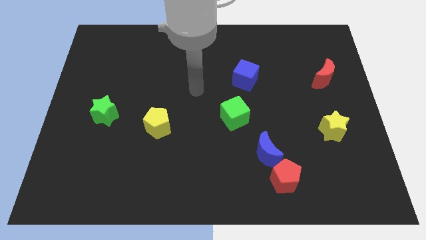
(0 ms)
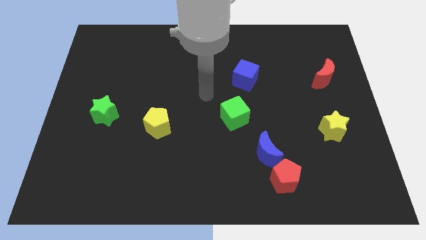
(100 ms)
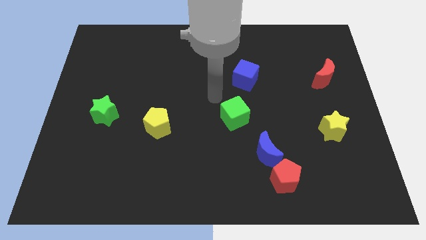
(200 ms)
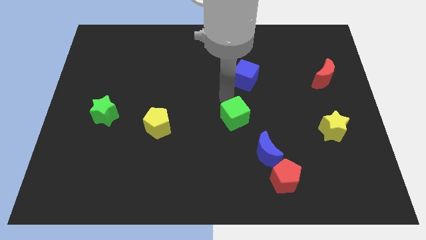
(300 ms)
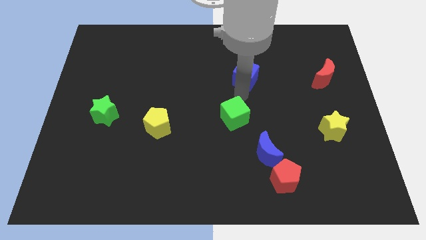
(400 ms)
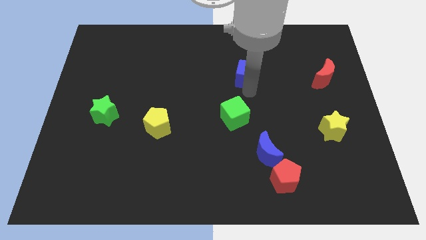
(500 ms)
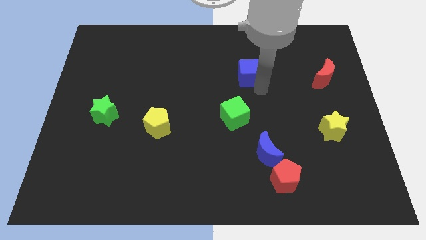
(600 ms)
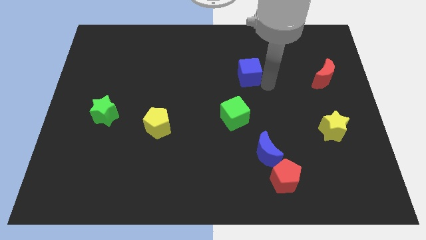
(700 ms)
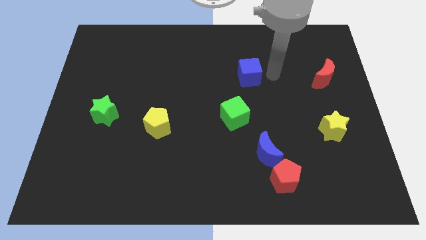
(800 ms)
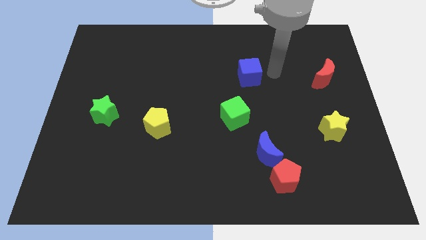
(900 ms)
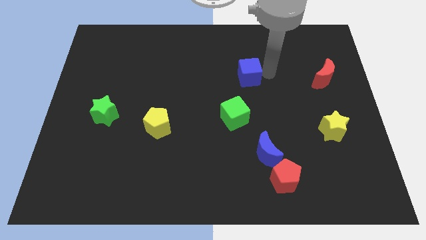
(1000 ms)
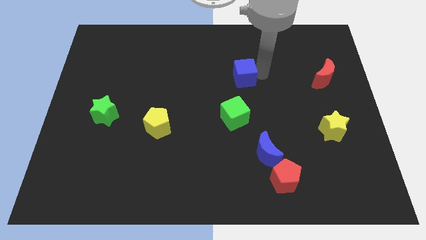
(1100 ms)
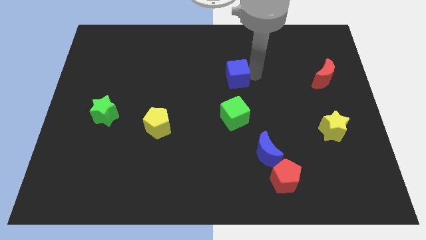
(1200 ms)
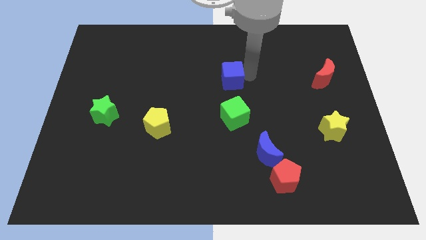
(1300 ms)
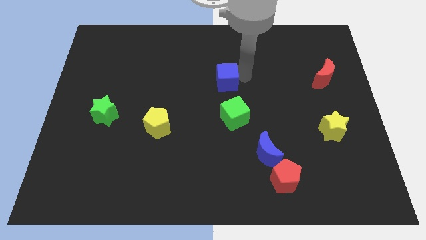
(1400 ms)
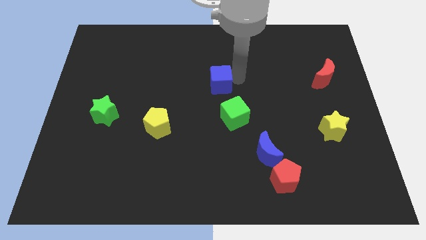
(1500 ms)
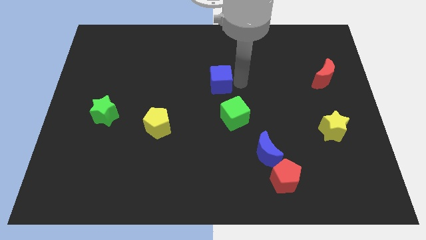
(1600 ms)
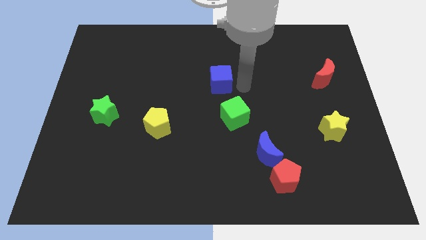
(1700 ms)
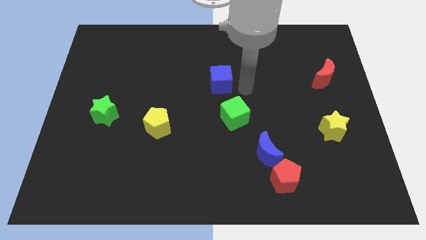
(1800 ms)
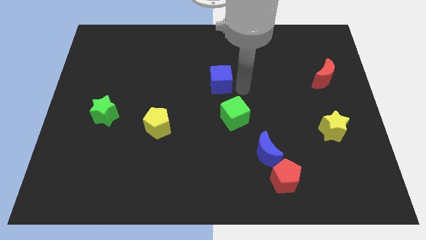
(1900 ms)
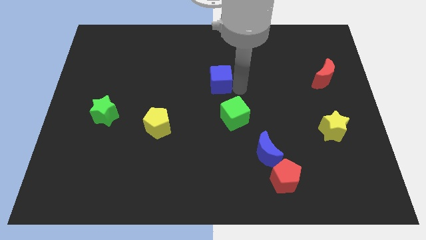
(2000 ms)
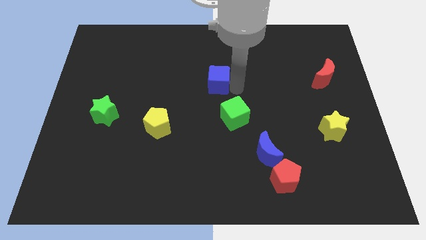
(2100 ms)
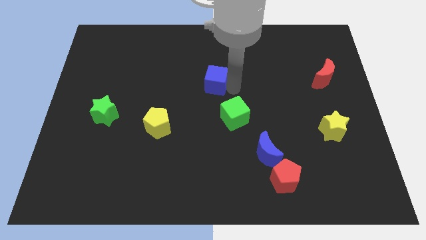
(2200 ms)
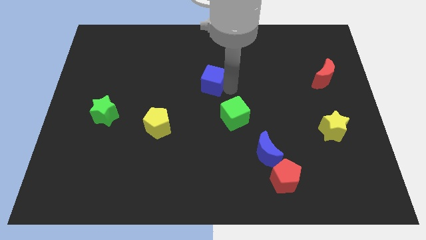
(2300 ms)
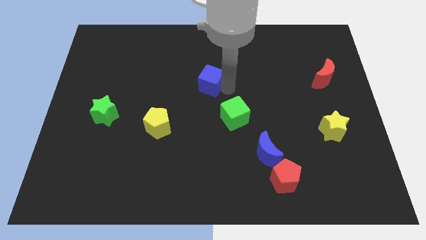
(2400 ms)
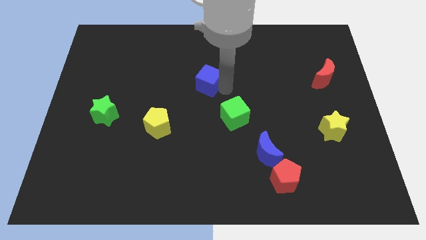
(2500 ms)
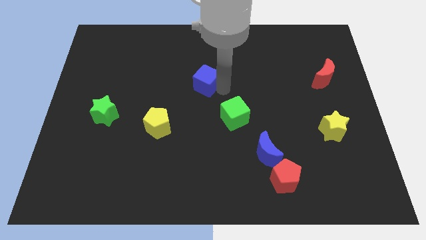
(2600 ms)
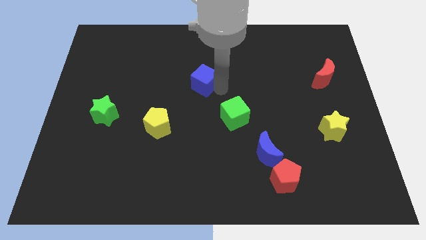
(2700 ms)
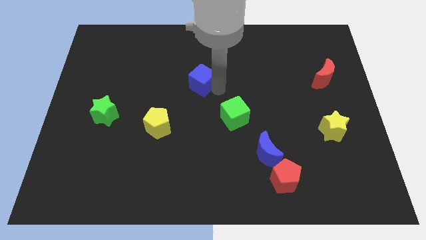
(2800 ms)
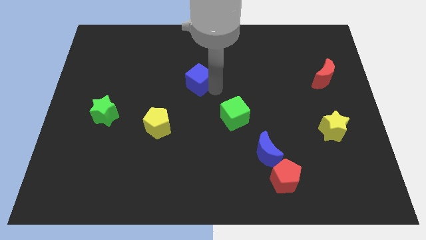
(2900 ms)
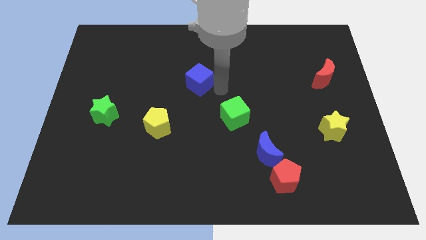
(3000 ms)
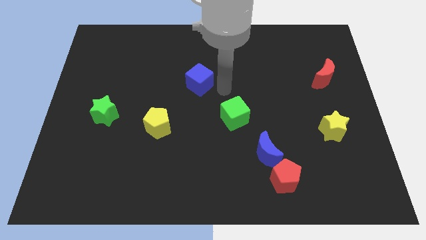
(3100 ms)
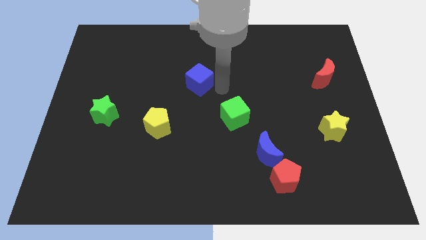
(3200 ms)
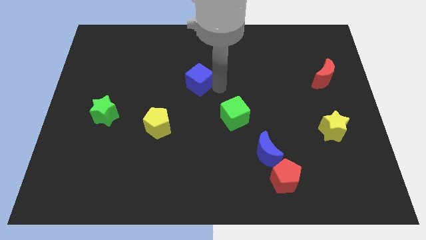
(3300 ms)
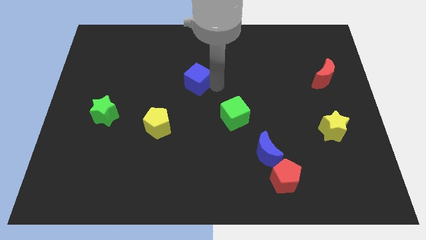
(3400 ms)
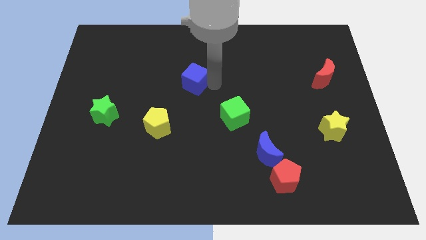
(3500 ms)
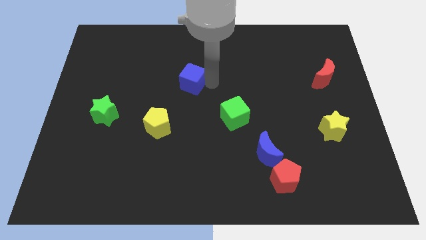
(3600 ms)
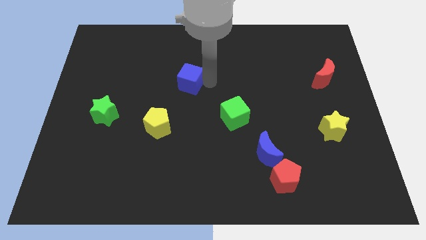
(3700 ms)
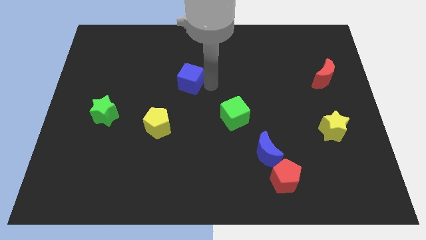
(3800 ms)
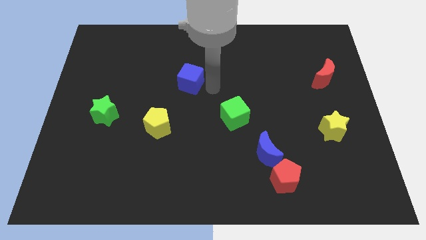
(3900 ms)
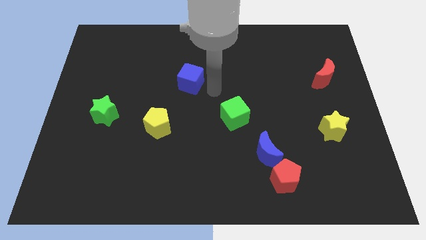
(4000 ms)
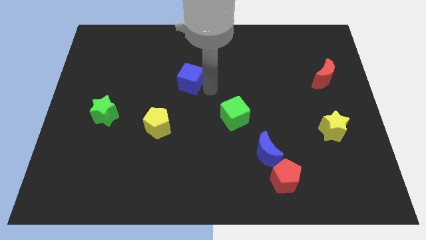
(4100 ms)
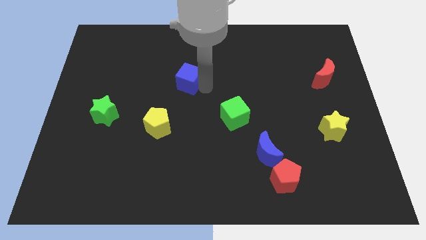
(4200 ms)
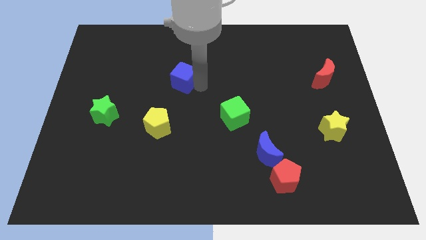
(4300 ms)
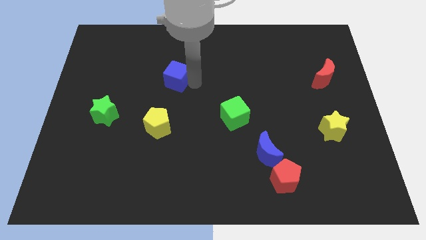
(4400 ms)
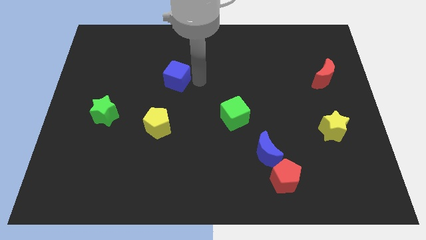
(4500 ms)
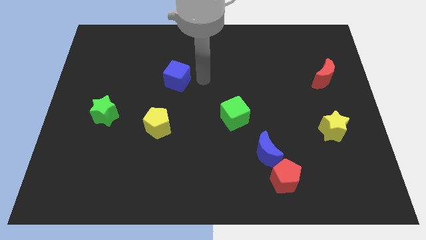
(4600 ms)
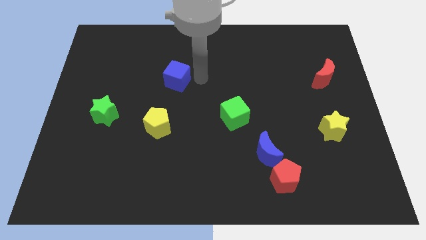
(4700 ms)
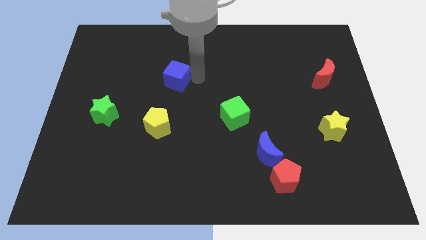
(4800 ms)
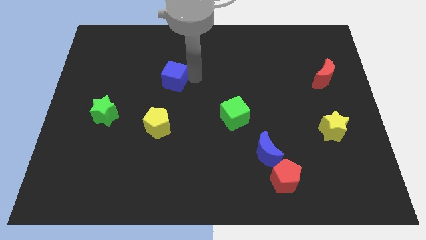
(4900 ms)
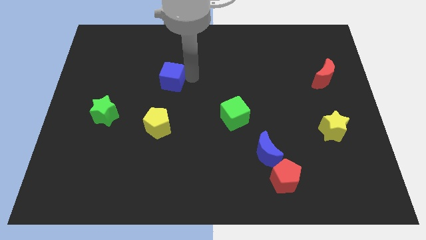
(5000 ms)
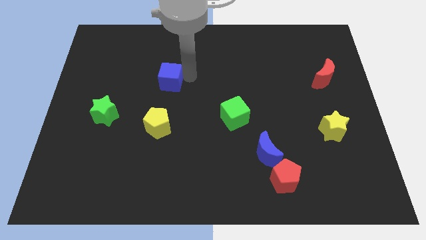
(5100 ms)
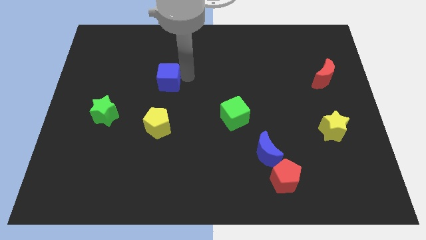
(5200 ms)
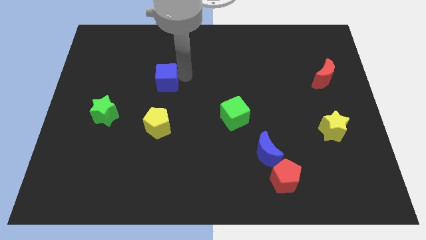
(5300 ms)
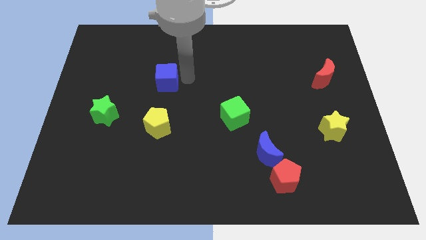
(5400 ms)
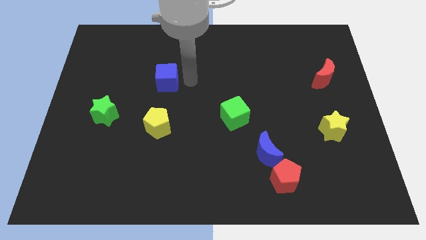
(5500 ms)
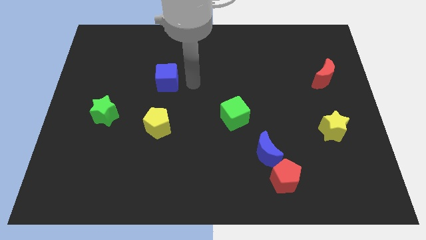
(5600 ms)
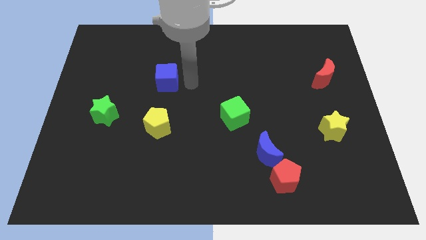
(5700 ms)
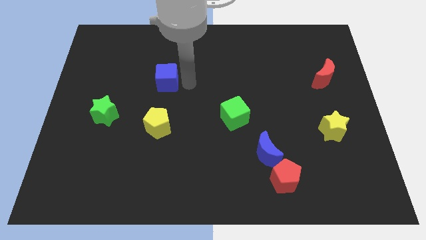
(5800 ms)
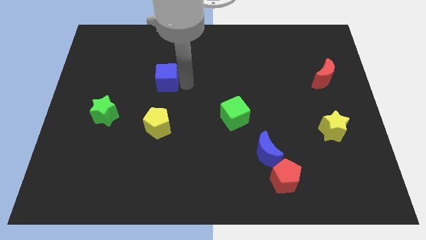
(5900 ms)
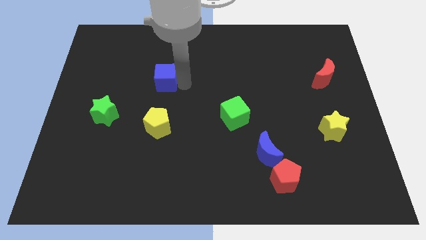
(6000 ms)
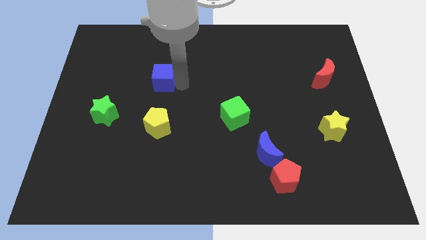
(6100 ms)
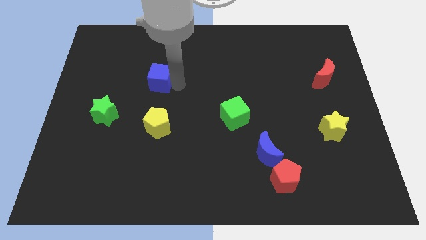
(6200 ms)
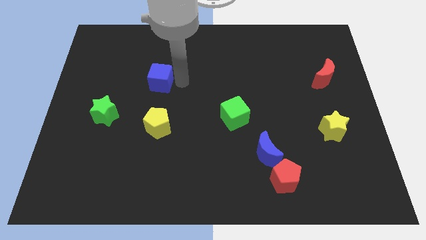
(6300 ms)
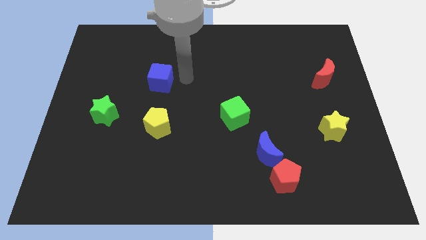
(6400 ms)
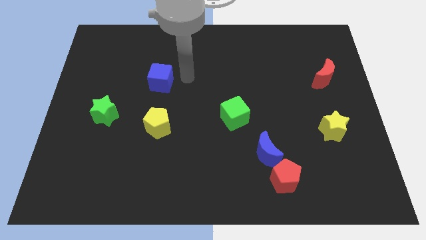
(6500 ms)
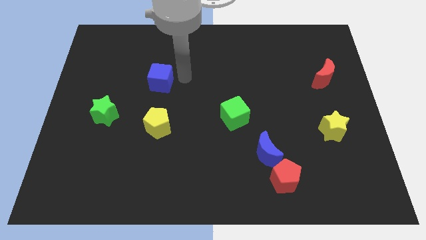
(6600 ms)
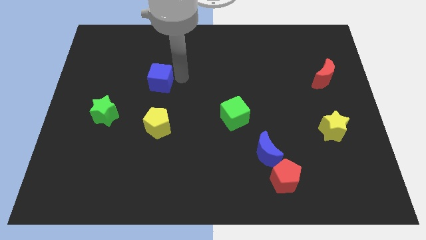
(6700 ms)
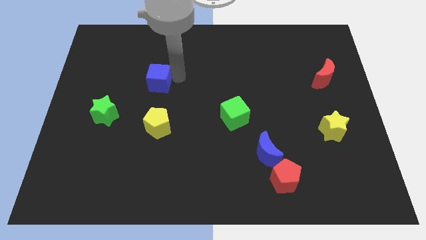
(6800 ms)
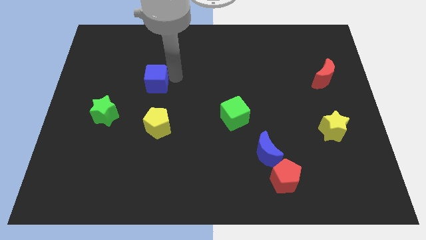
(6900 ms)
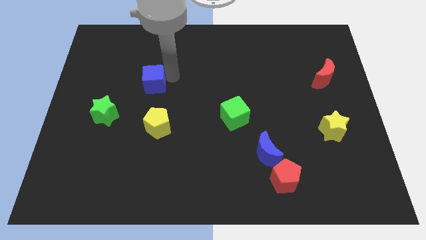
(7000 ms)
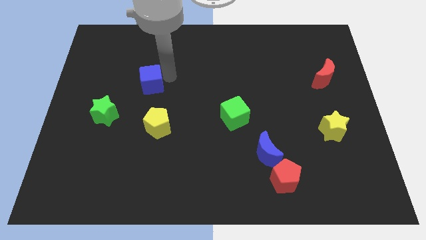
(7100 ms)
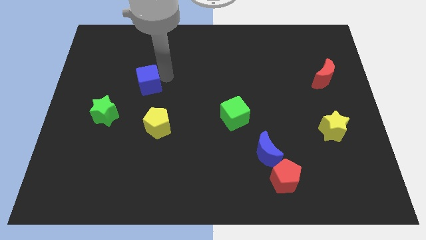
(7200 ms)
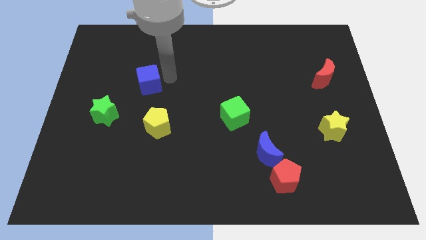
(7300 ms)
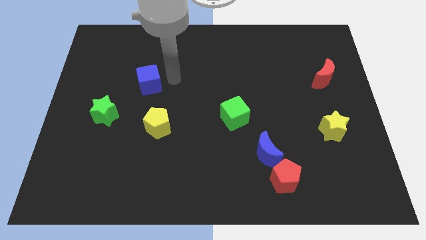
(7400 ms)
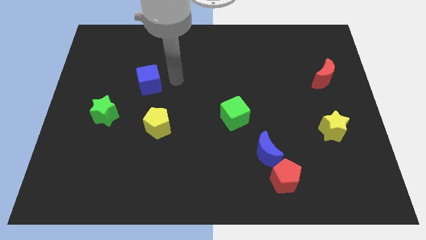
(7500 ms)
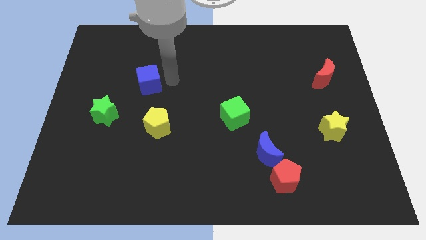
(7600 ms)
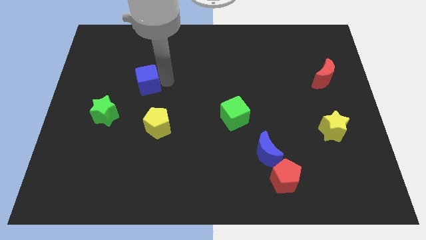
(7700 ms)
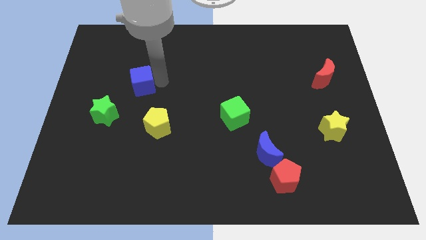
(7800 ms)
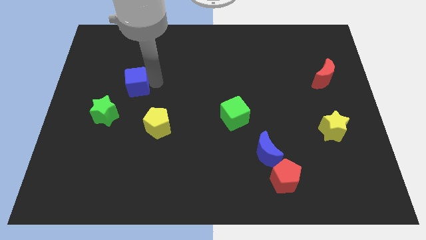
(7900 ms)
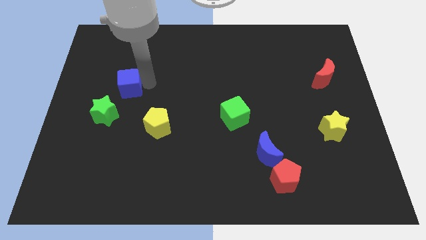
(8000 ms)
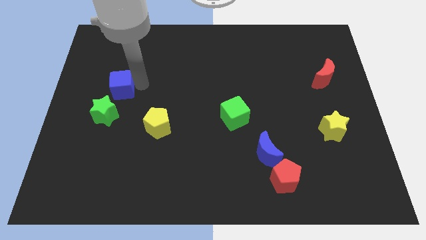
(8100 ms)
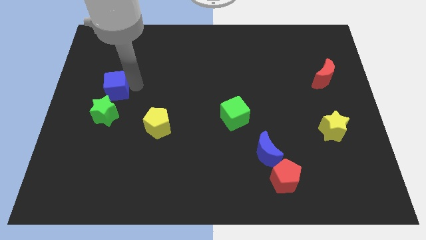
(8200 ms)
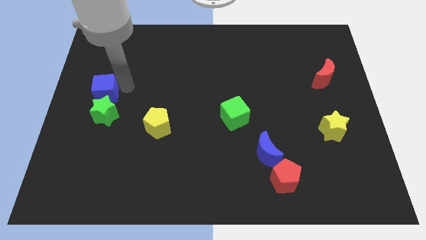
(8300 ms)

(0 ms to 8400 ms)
push the blue cube to the center left
